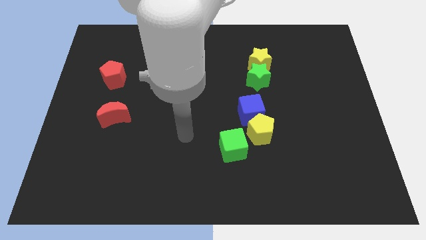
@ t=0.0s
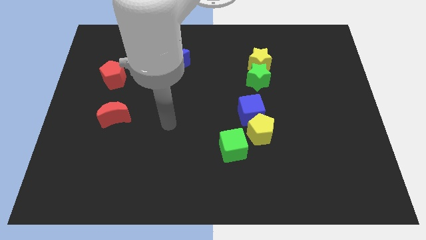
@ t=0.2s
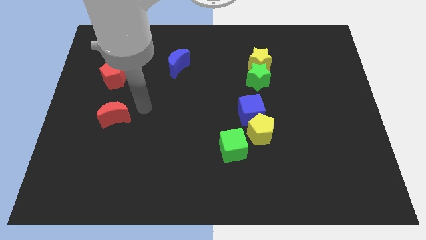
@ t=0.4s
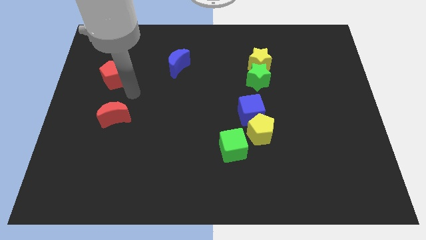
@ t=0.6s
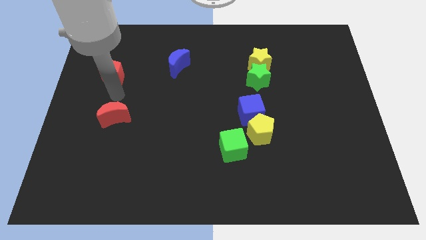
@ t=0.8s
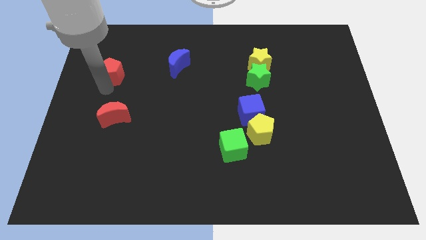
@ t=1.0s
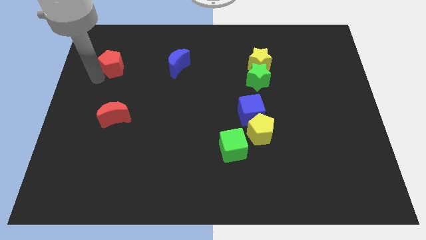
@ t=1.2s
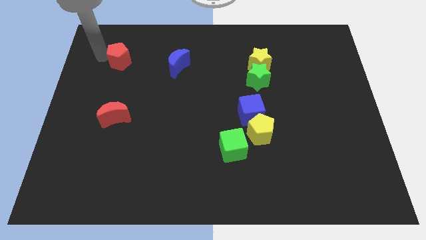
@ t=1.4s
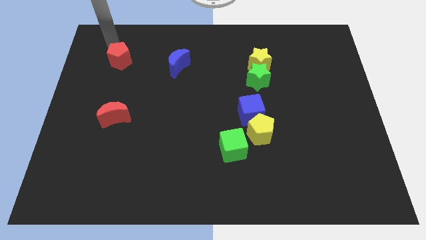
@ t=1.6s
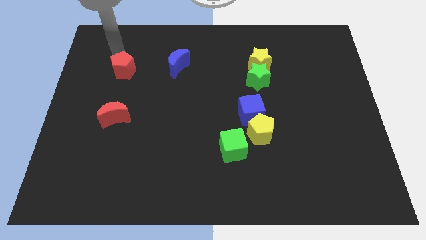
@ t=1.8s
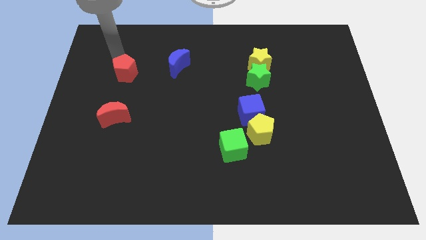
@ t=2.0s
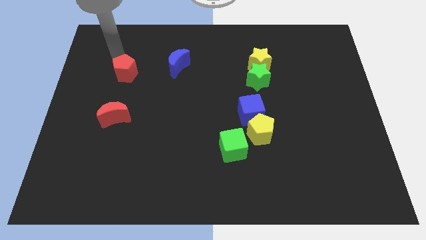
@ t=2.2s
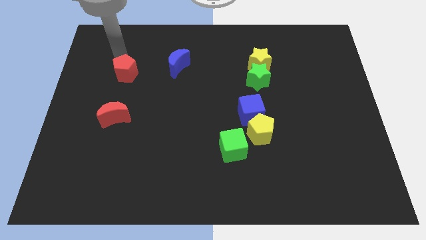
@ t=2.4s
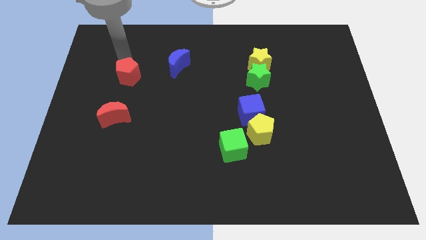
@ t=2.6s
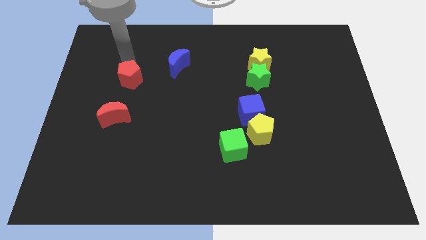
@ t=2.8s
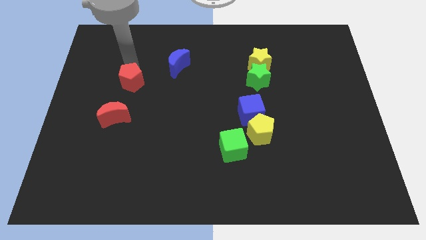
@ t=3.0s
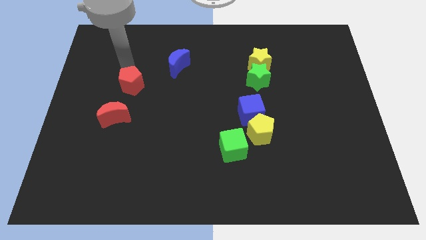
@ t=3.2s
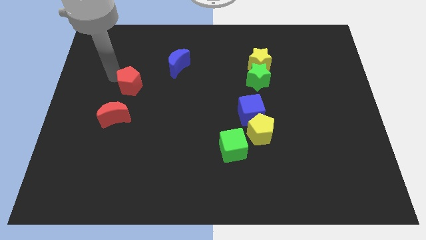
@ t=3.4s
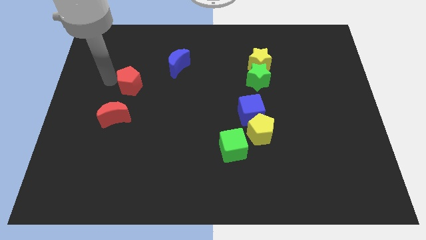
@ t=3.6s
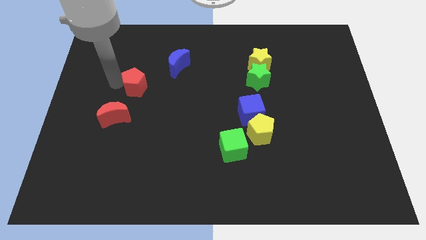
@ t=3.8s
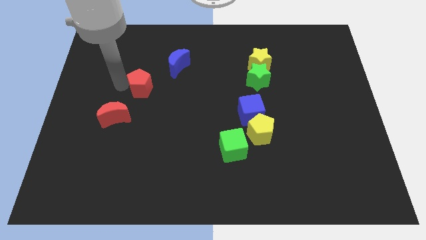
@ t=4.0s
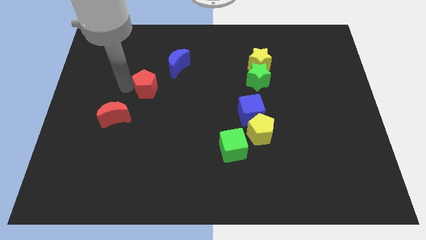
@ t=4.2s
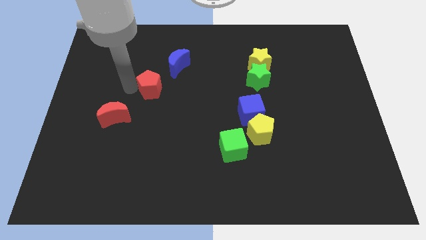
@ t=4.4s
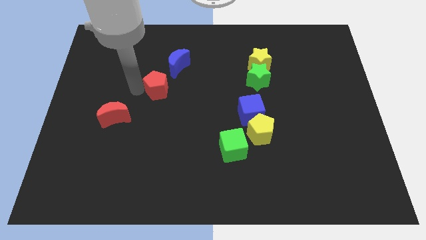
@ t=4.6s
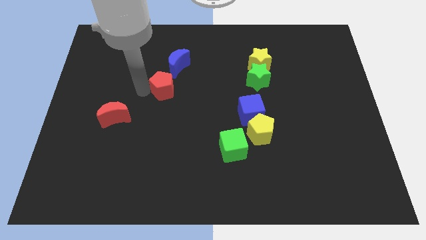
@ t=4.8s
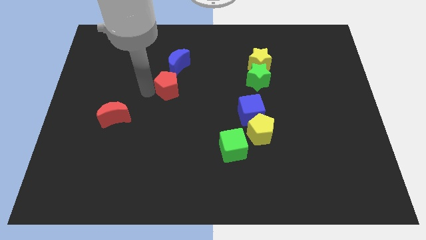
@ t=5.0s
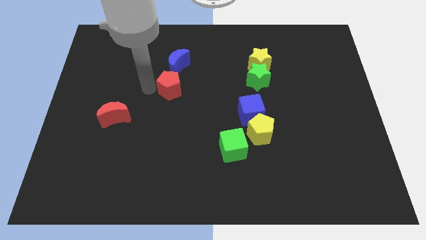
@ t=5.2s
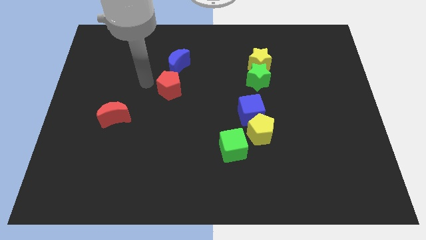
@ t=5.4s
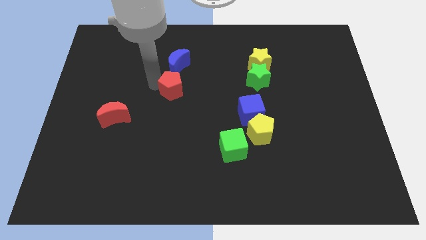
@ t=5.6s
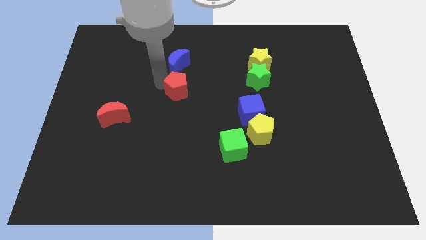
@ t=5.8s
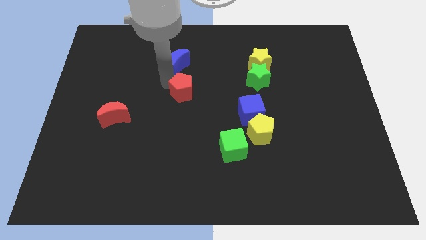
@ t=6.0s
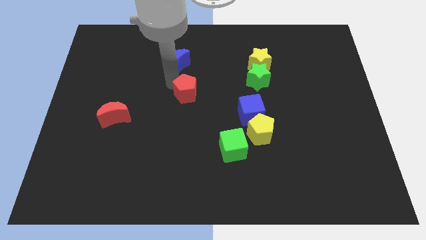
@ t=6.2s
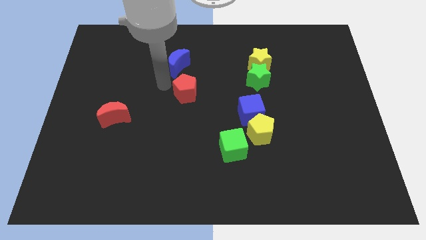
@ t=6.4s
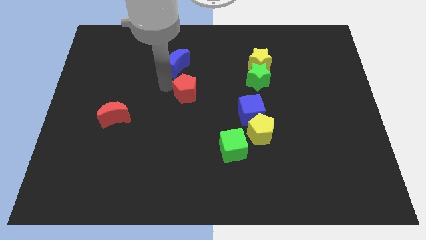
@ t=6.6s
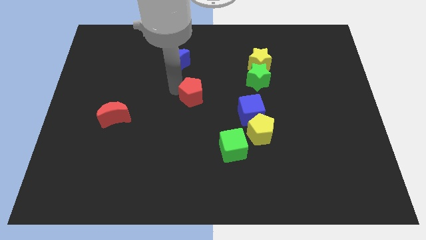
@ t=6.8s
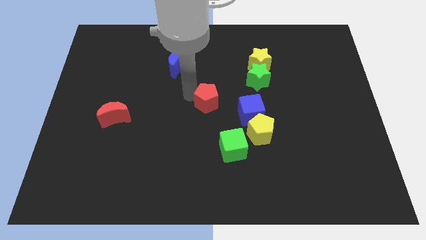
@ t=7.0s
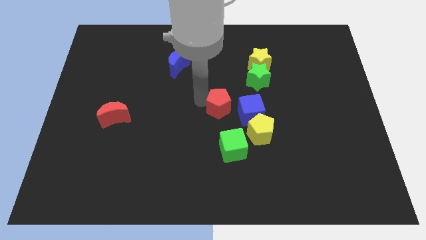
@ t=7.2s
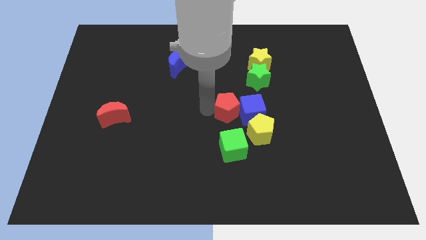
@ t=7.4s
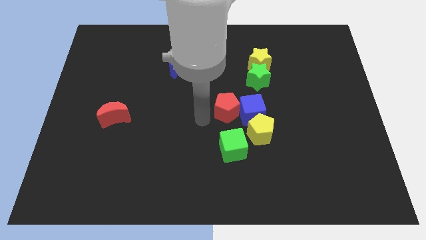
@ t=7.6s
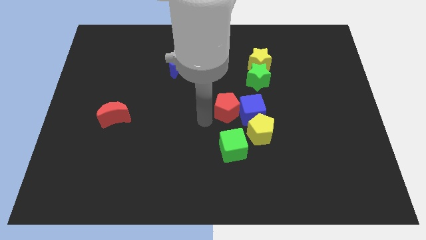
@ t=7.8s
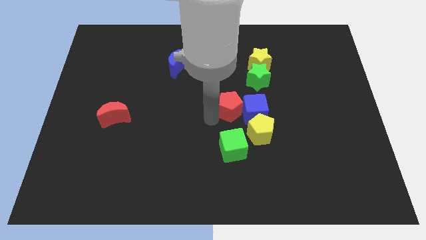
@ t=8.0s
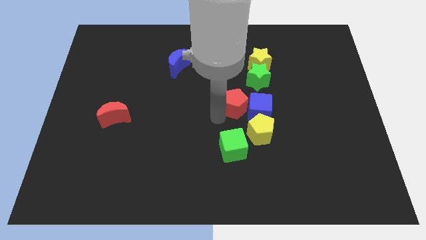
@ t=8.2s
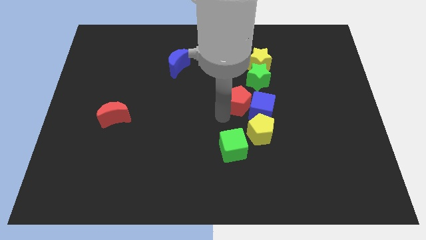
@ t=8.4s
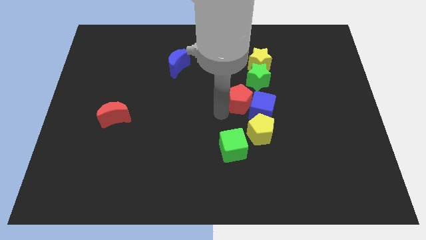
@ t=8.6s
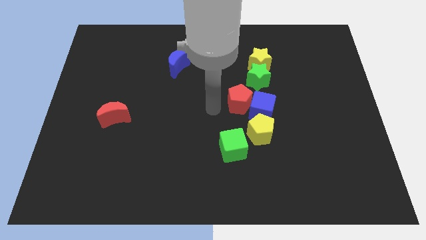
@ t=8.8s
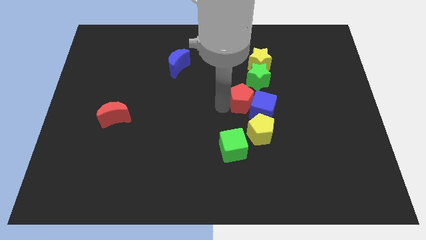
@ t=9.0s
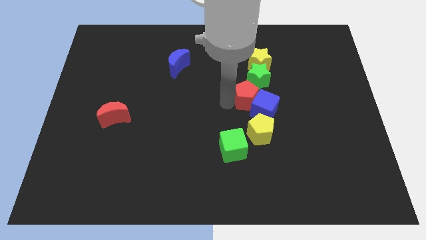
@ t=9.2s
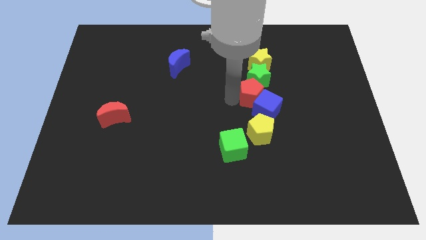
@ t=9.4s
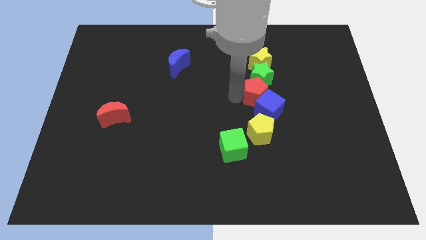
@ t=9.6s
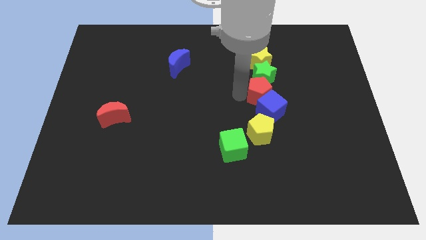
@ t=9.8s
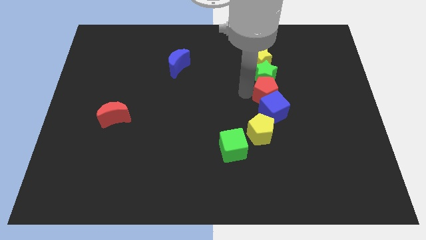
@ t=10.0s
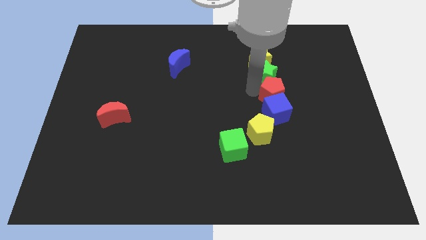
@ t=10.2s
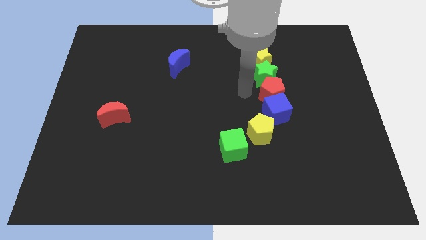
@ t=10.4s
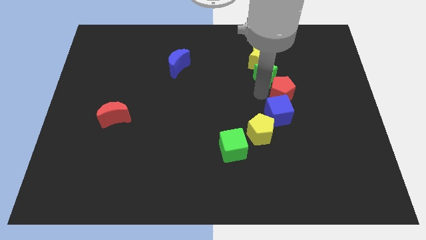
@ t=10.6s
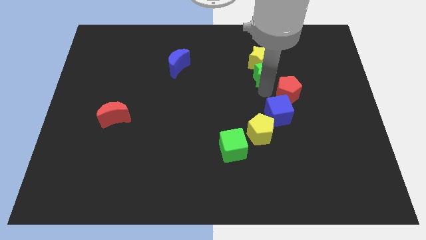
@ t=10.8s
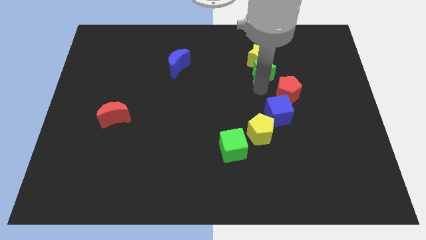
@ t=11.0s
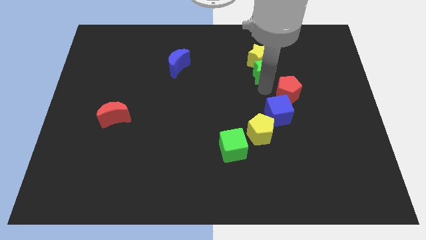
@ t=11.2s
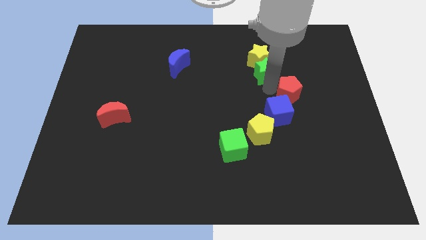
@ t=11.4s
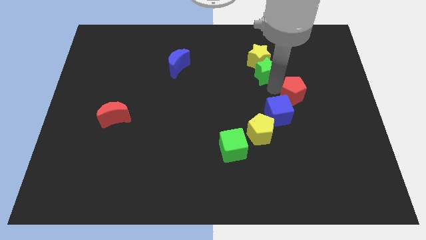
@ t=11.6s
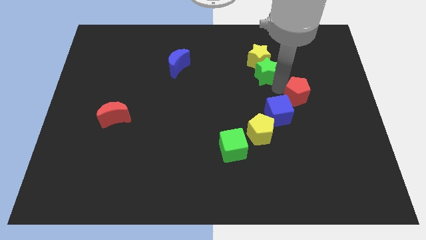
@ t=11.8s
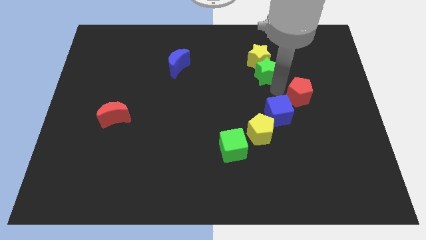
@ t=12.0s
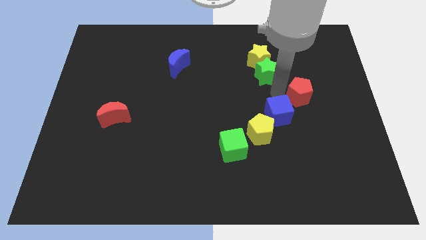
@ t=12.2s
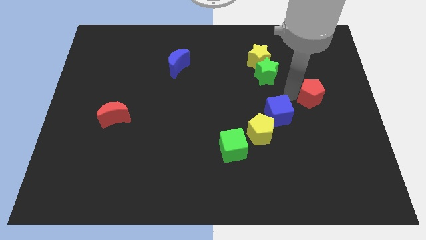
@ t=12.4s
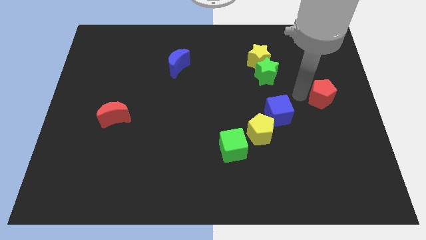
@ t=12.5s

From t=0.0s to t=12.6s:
slide the red pentagon to the right side
